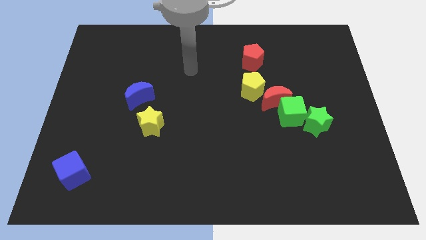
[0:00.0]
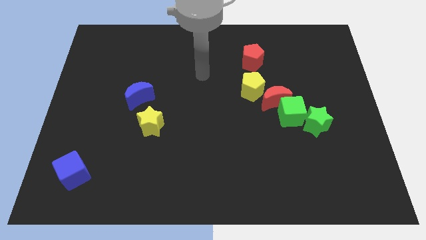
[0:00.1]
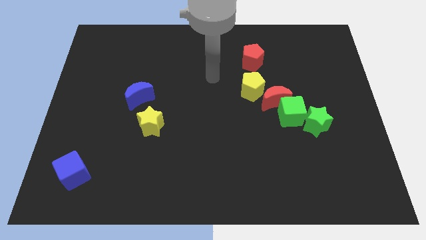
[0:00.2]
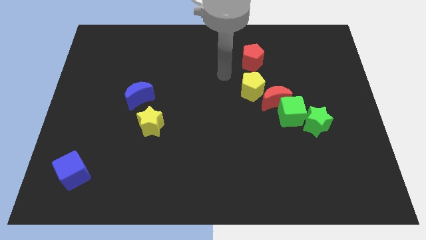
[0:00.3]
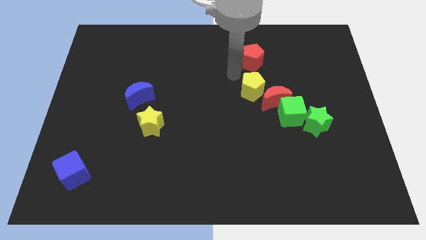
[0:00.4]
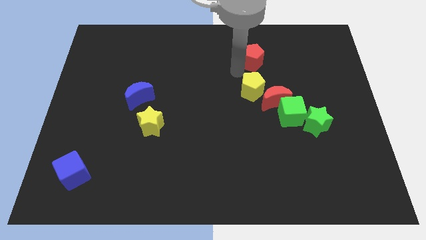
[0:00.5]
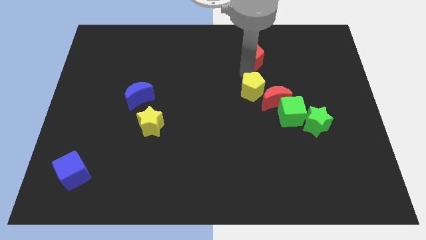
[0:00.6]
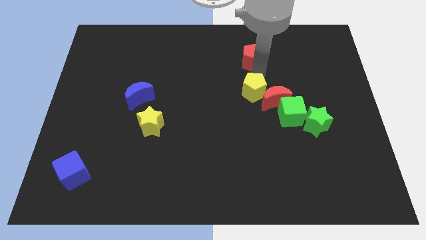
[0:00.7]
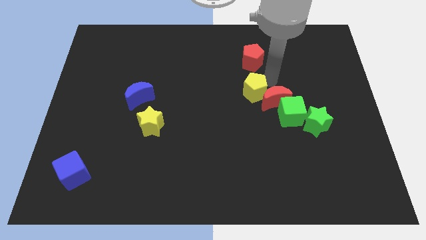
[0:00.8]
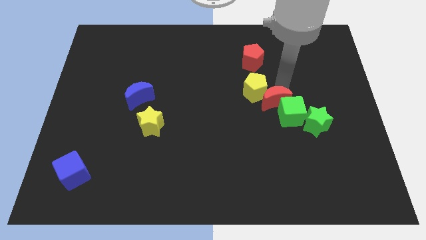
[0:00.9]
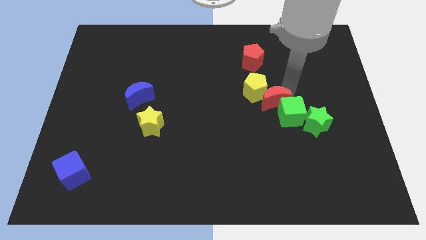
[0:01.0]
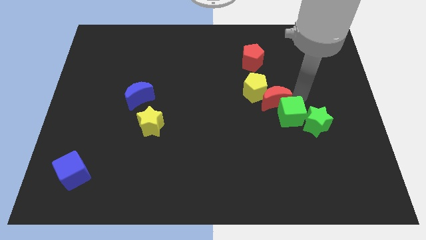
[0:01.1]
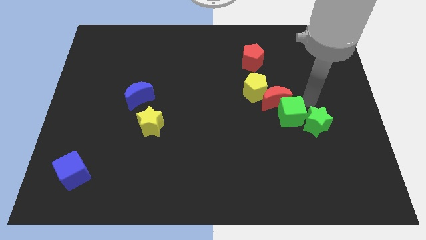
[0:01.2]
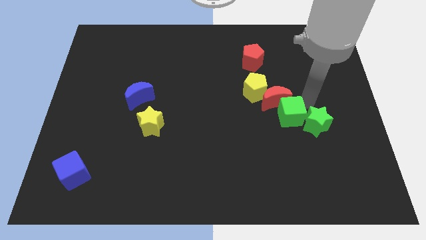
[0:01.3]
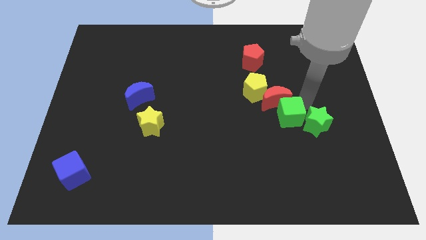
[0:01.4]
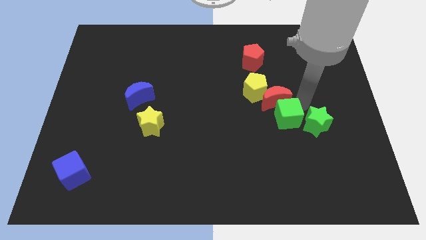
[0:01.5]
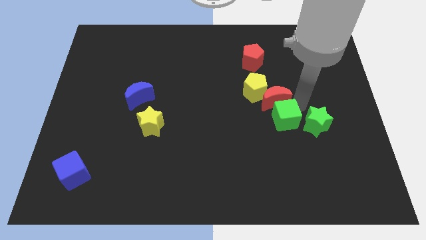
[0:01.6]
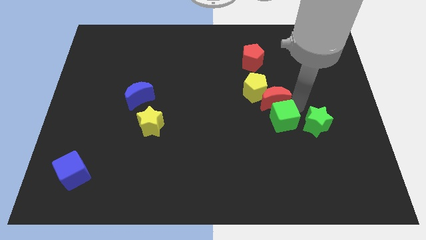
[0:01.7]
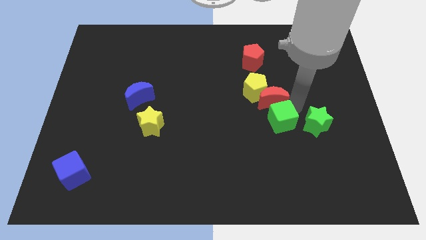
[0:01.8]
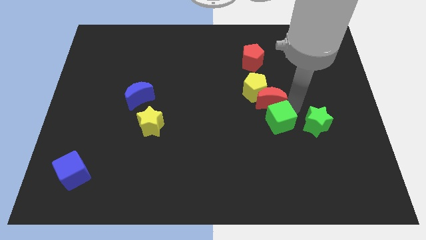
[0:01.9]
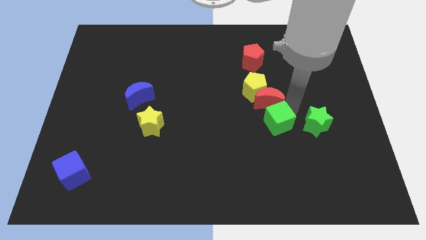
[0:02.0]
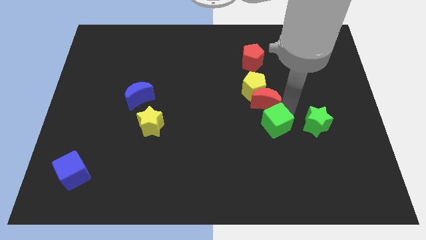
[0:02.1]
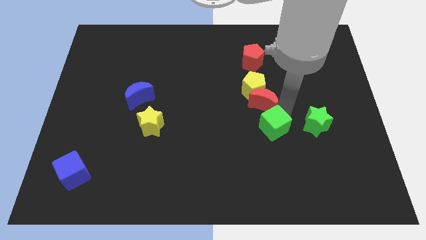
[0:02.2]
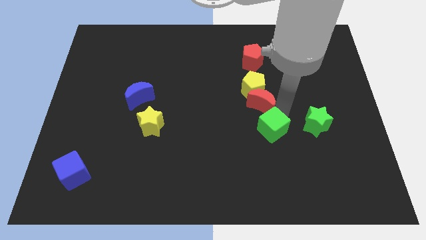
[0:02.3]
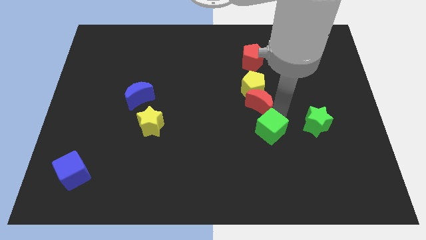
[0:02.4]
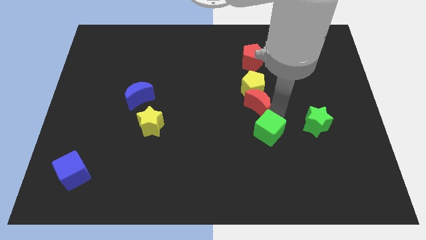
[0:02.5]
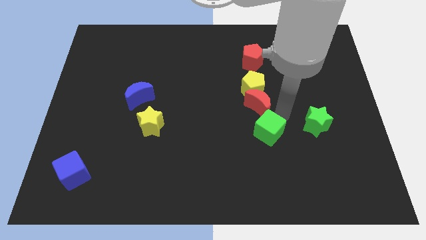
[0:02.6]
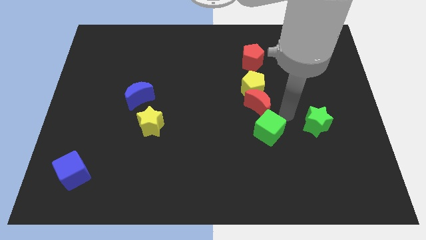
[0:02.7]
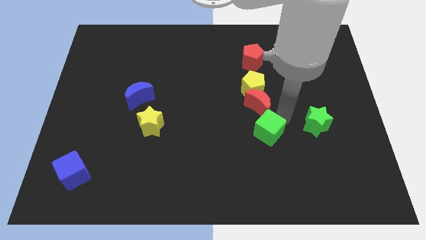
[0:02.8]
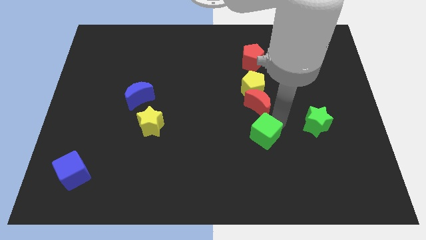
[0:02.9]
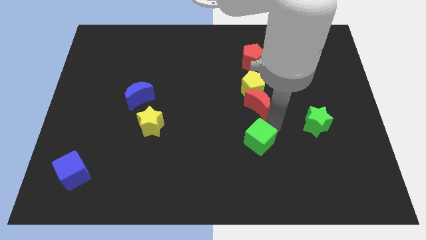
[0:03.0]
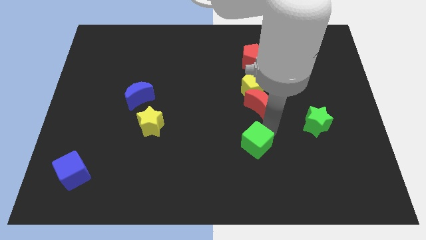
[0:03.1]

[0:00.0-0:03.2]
move the green cube away from the red moon and green star

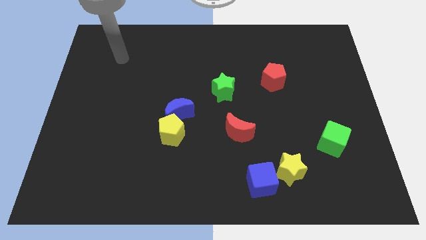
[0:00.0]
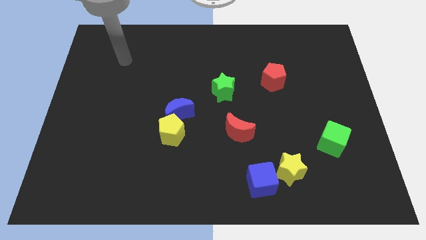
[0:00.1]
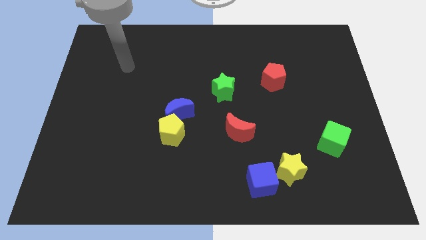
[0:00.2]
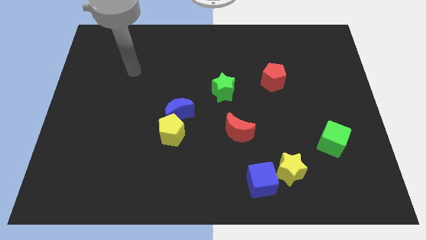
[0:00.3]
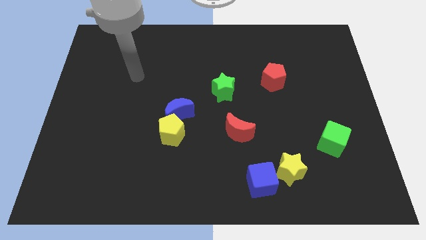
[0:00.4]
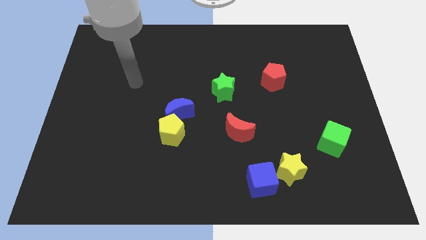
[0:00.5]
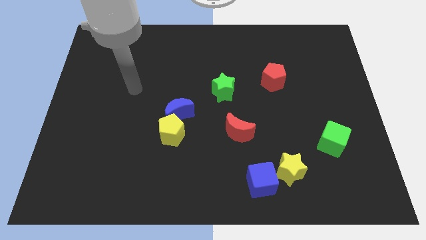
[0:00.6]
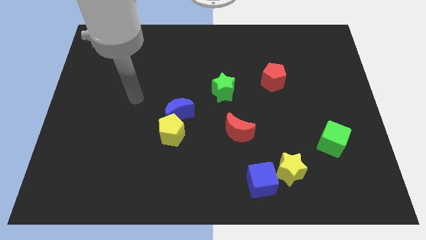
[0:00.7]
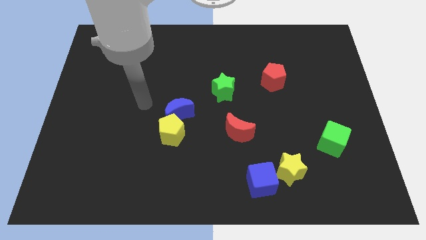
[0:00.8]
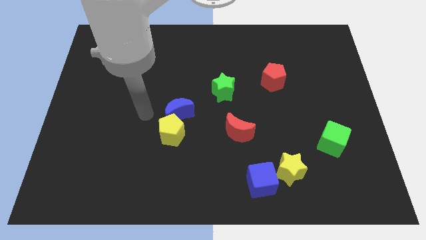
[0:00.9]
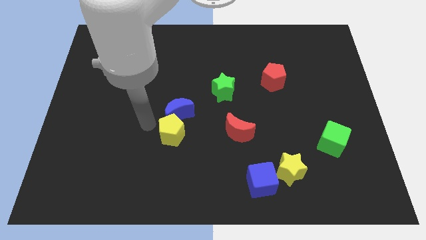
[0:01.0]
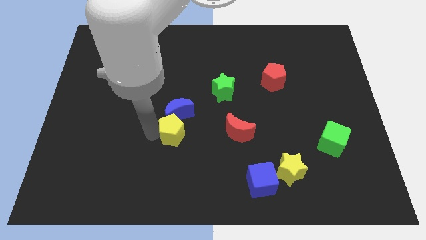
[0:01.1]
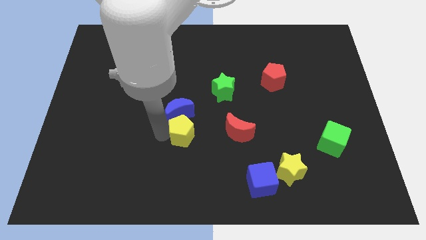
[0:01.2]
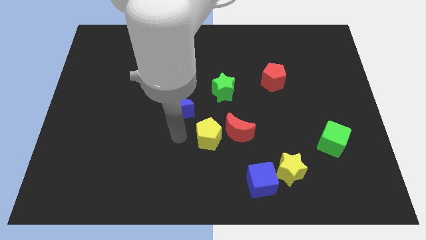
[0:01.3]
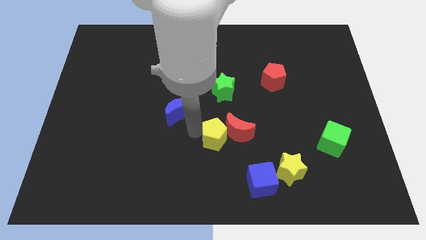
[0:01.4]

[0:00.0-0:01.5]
separate the blue moon from the yellow pentagon

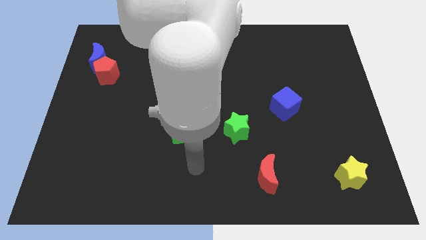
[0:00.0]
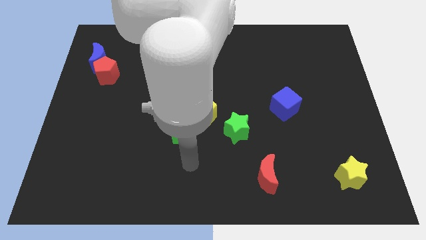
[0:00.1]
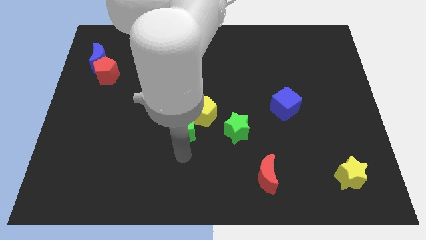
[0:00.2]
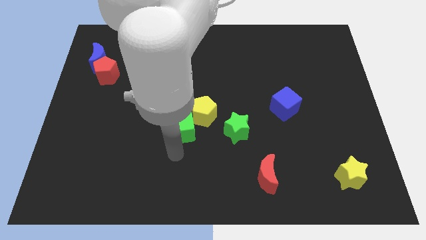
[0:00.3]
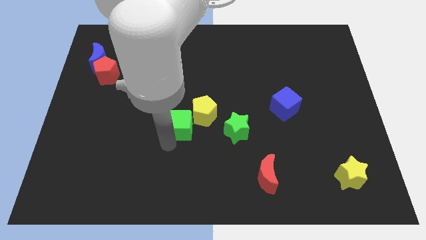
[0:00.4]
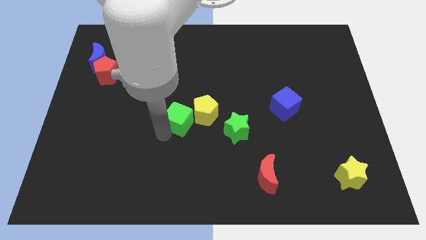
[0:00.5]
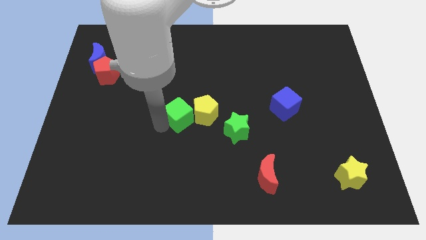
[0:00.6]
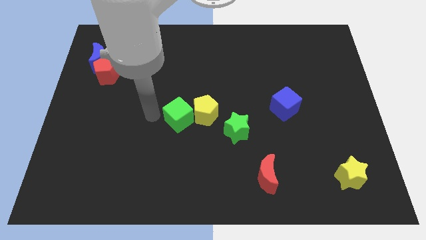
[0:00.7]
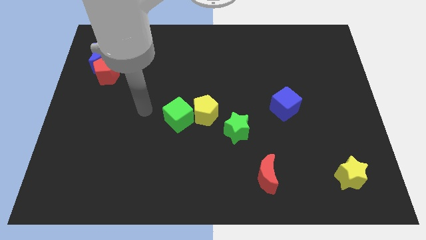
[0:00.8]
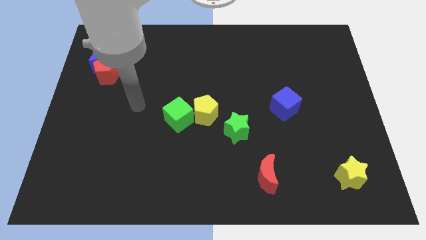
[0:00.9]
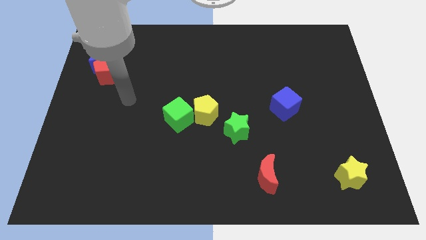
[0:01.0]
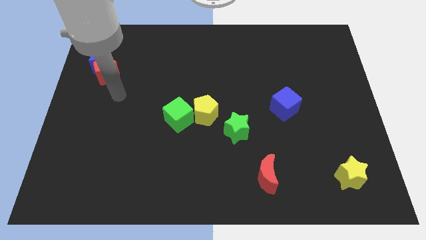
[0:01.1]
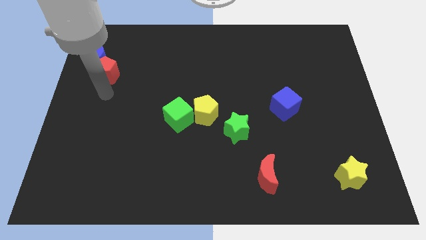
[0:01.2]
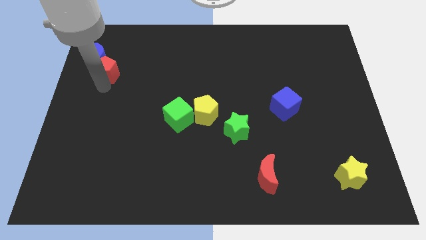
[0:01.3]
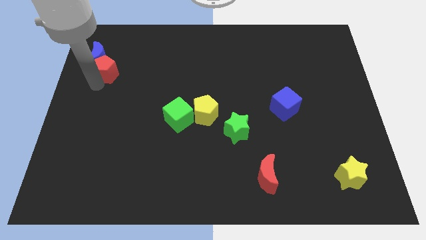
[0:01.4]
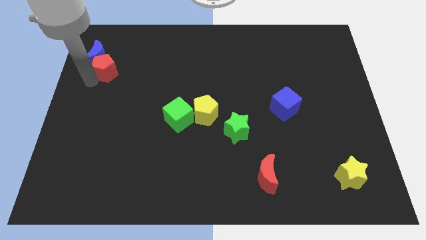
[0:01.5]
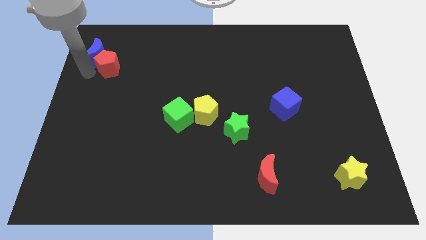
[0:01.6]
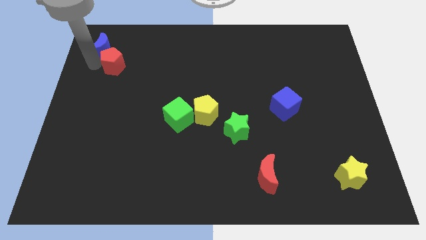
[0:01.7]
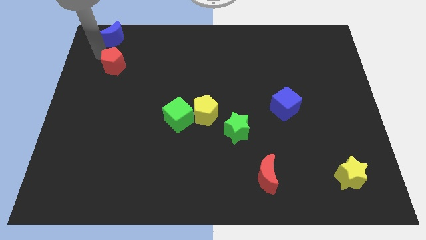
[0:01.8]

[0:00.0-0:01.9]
move the red pentagon away from the blue moon

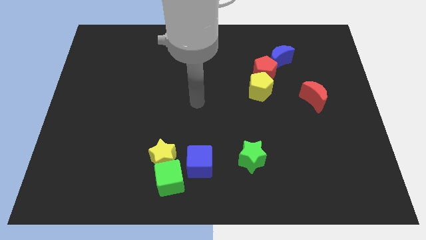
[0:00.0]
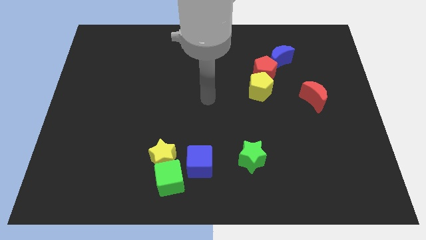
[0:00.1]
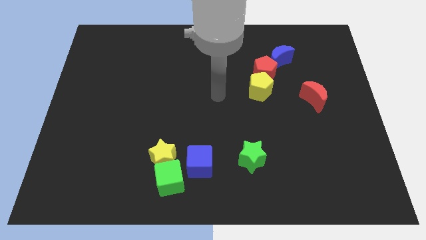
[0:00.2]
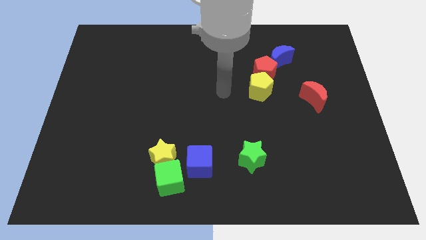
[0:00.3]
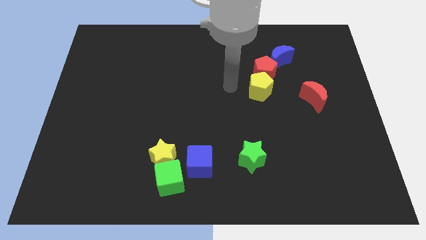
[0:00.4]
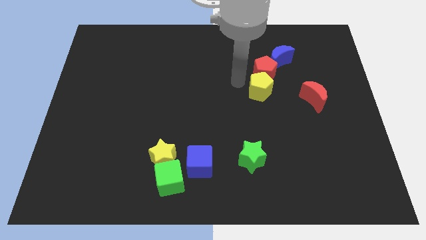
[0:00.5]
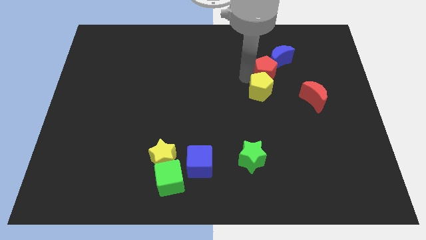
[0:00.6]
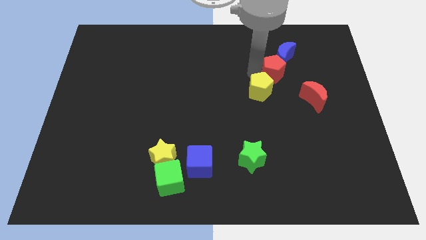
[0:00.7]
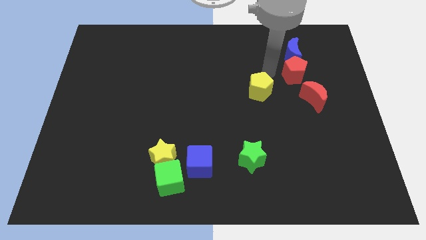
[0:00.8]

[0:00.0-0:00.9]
pull the yellow pentagon apart from the red pentagon

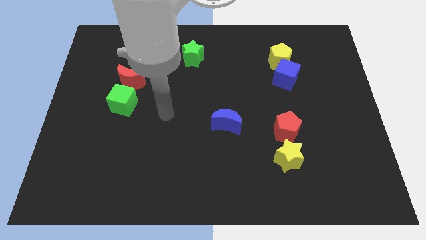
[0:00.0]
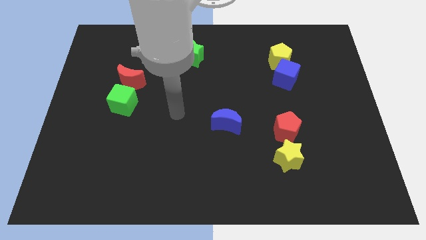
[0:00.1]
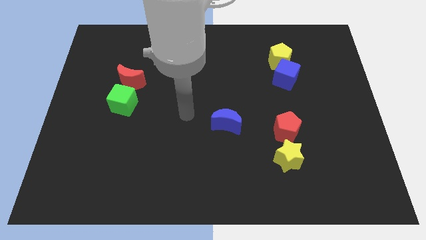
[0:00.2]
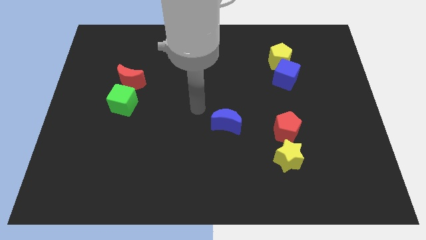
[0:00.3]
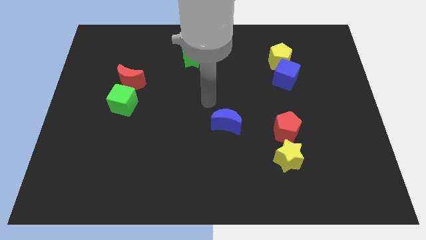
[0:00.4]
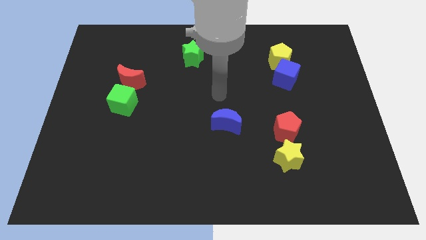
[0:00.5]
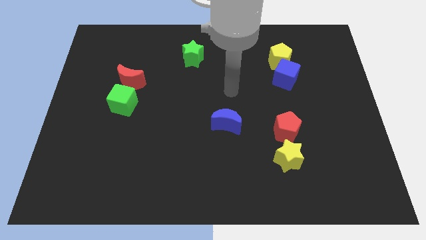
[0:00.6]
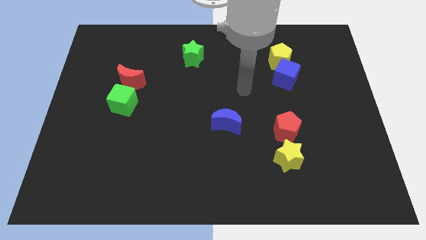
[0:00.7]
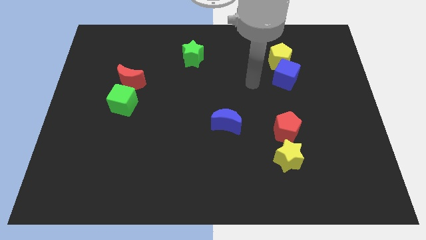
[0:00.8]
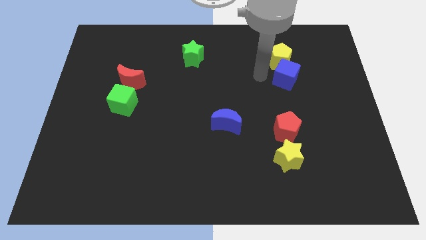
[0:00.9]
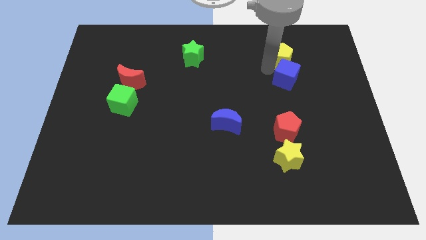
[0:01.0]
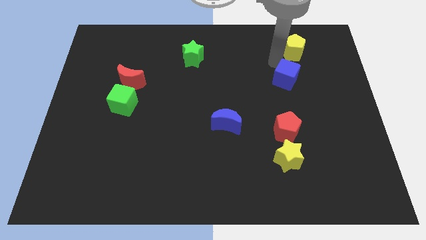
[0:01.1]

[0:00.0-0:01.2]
move the blue cube away from the yellow pentagon

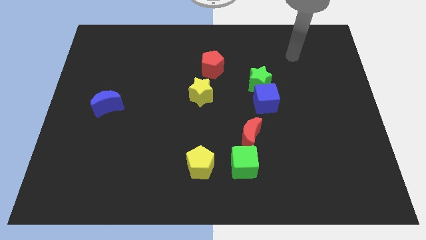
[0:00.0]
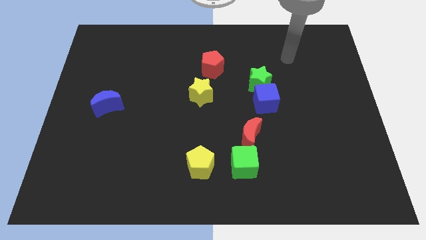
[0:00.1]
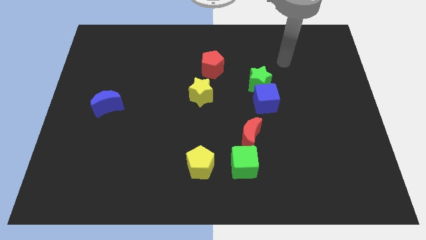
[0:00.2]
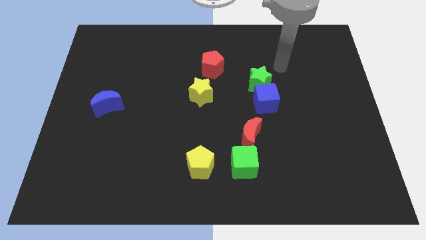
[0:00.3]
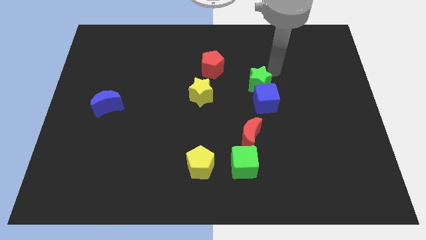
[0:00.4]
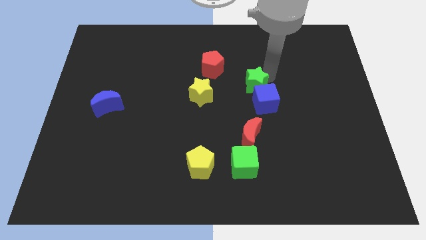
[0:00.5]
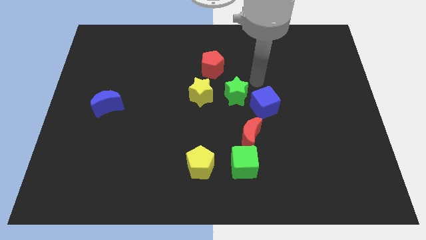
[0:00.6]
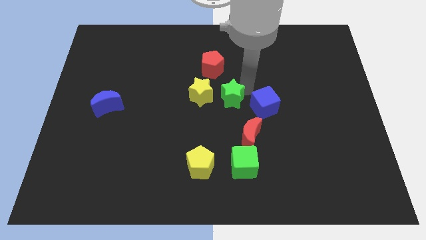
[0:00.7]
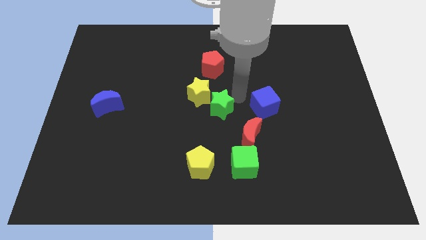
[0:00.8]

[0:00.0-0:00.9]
move the blue cube away from the green star
